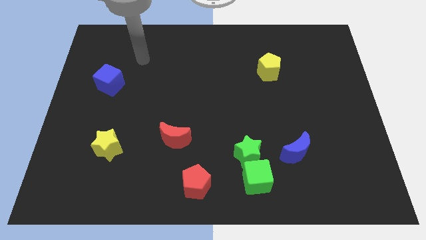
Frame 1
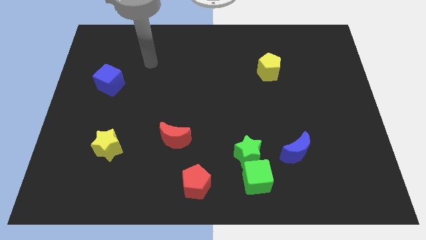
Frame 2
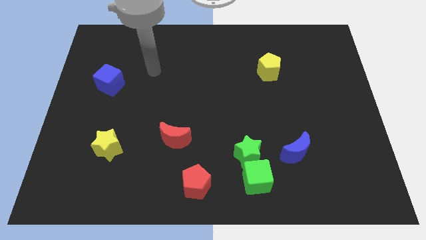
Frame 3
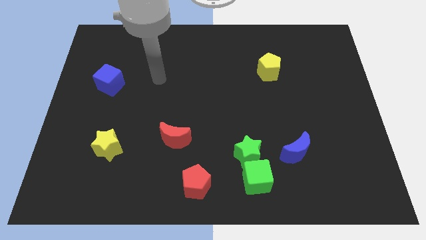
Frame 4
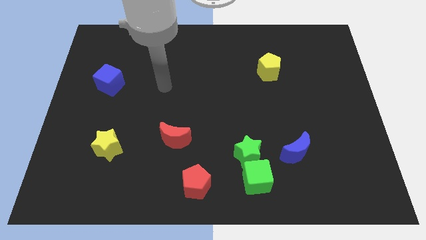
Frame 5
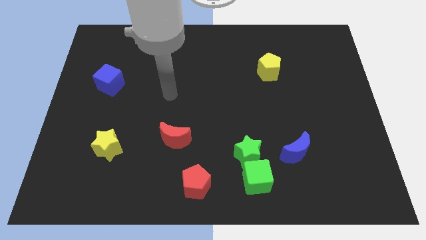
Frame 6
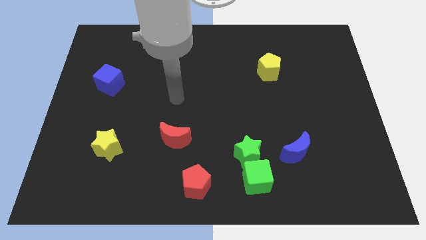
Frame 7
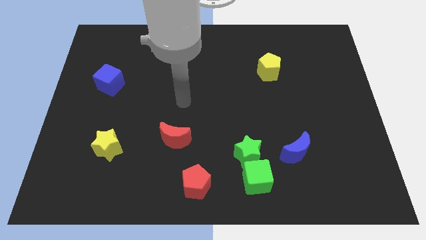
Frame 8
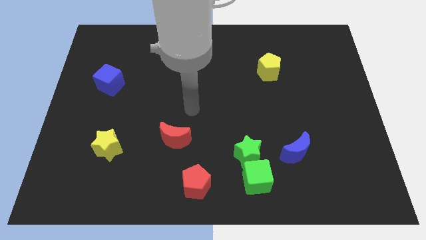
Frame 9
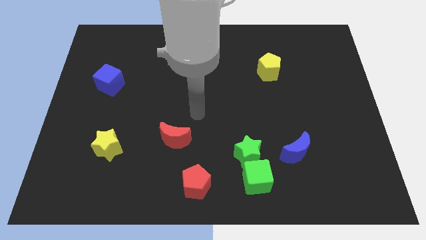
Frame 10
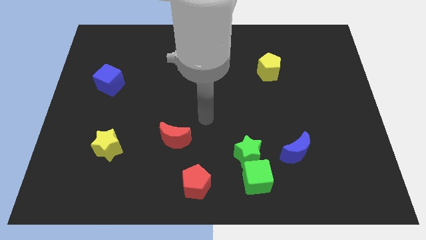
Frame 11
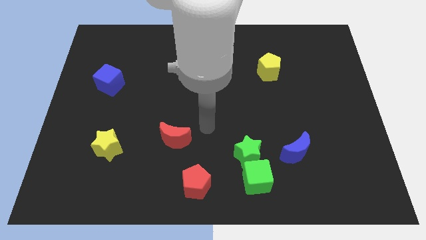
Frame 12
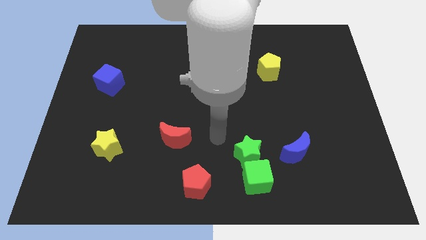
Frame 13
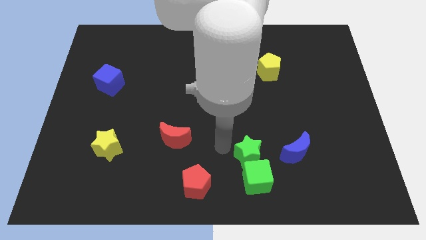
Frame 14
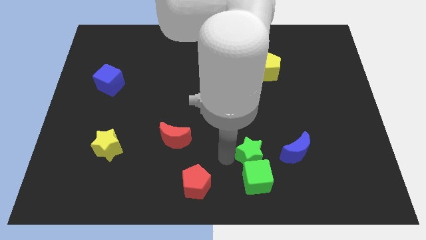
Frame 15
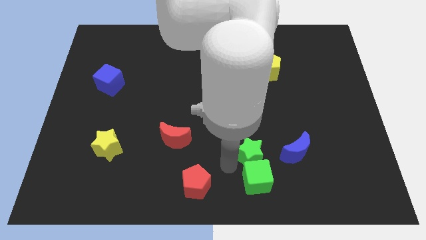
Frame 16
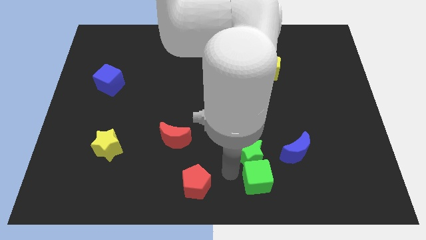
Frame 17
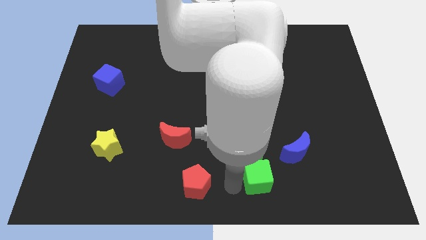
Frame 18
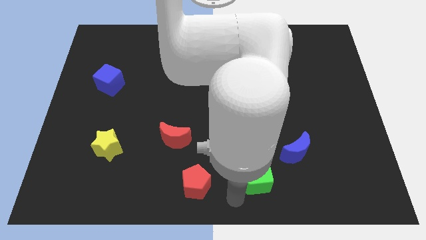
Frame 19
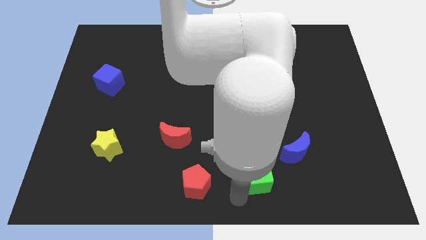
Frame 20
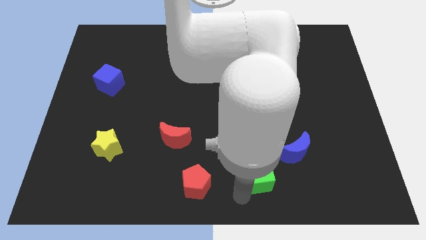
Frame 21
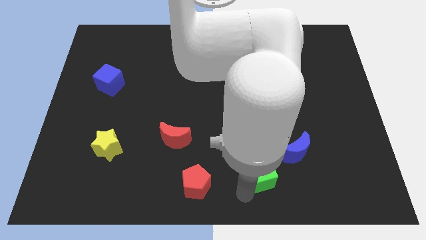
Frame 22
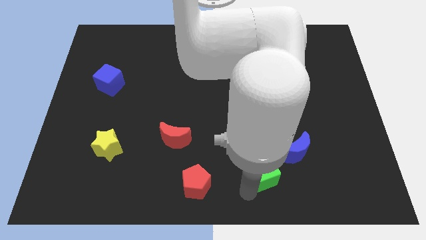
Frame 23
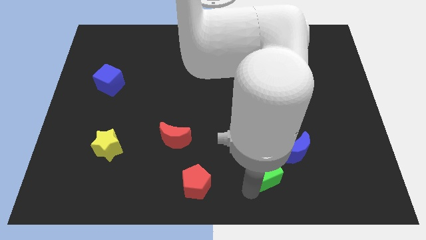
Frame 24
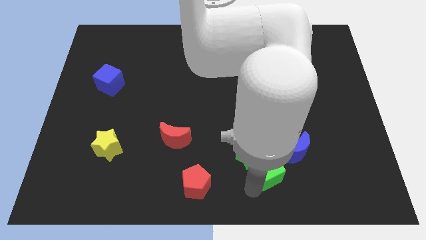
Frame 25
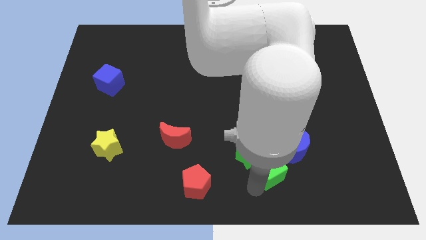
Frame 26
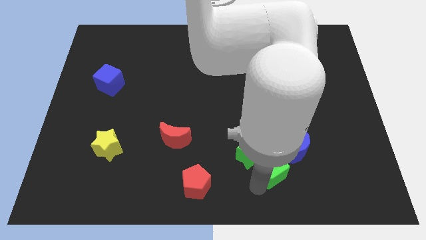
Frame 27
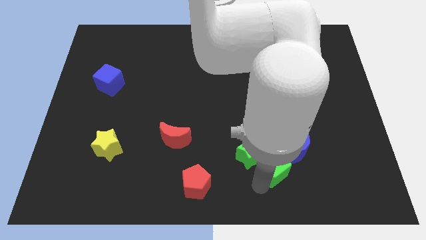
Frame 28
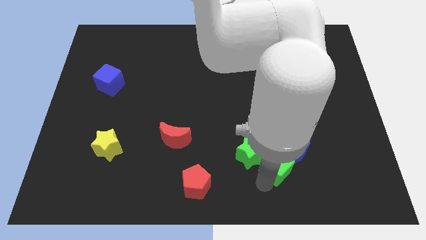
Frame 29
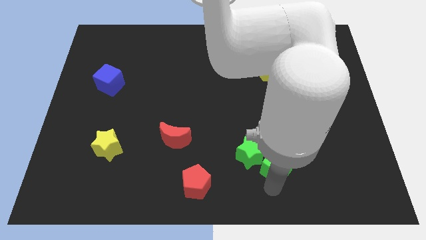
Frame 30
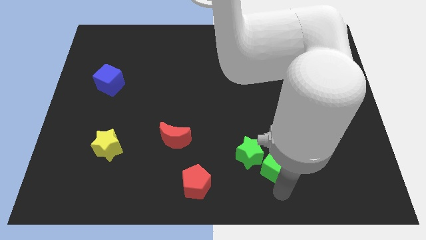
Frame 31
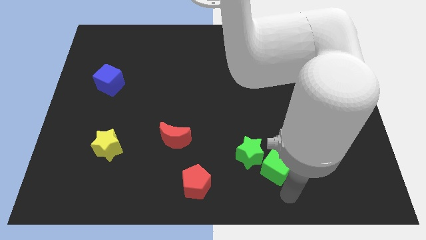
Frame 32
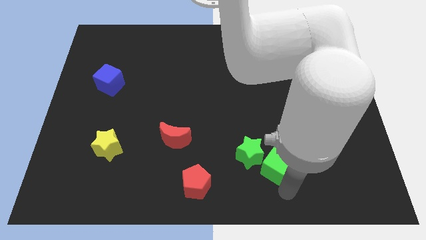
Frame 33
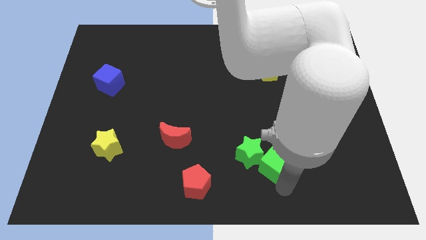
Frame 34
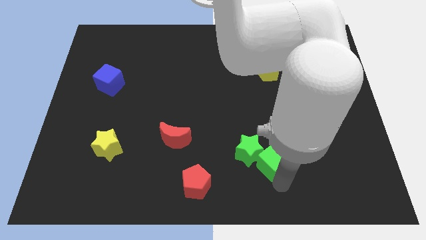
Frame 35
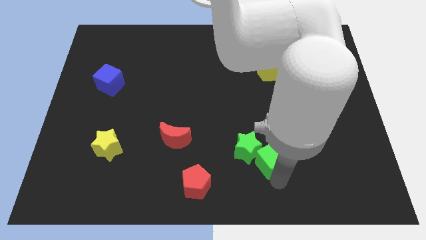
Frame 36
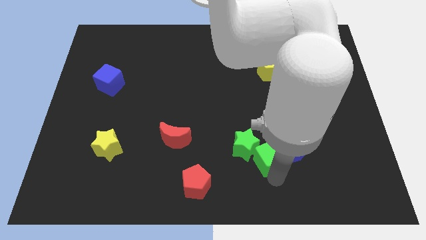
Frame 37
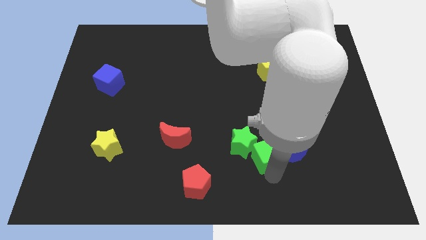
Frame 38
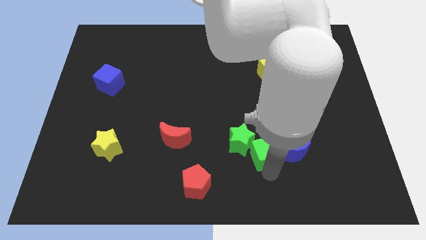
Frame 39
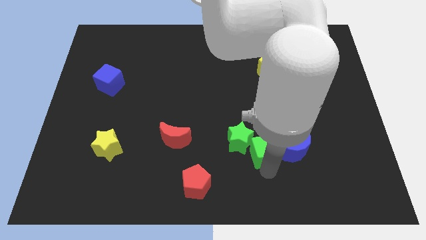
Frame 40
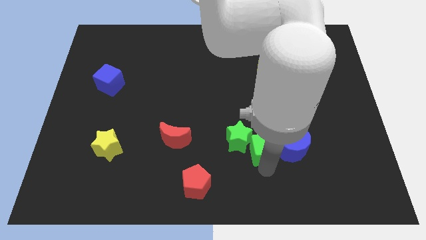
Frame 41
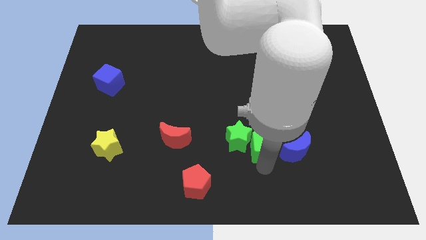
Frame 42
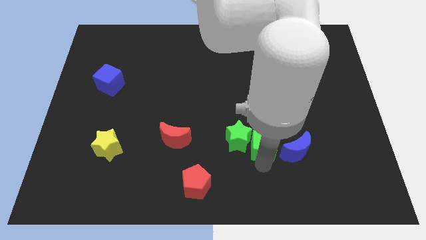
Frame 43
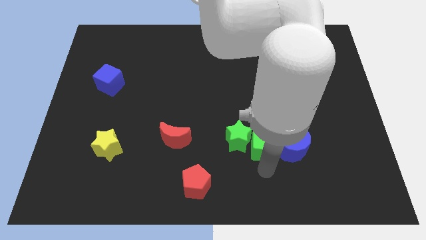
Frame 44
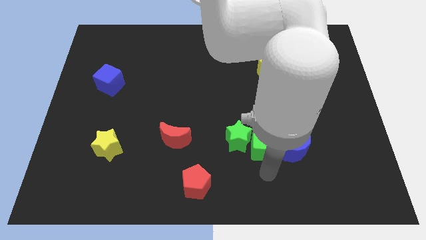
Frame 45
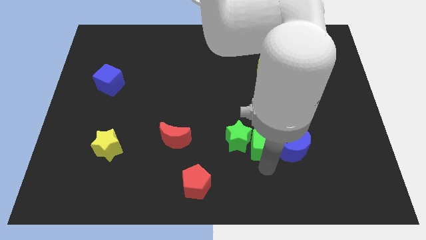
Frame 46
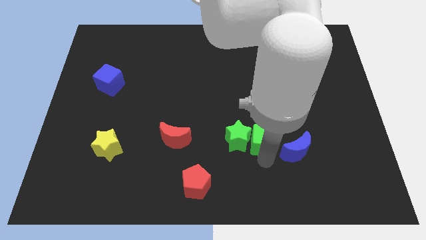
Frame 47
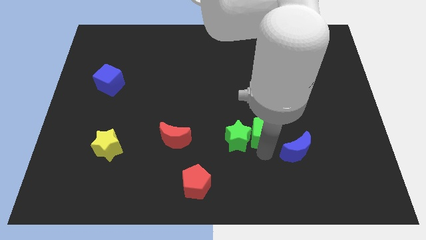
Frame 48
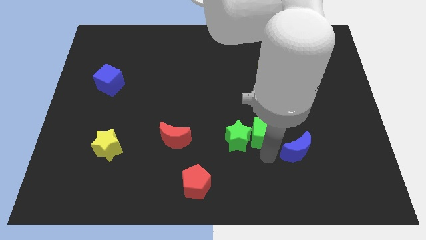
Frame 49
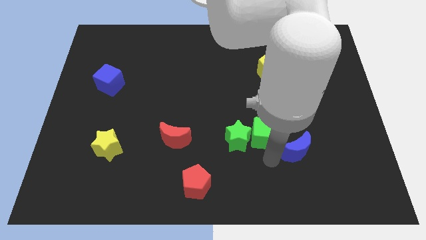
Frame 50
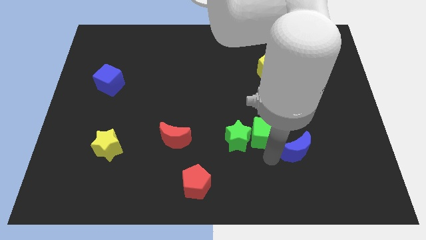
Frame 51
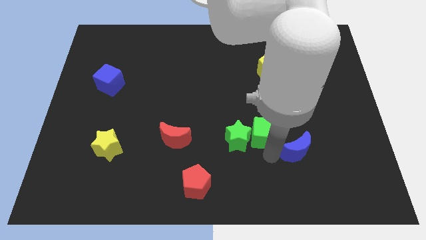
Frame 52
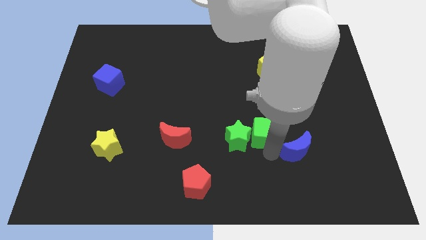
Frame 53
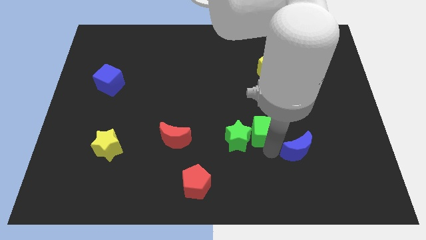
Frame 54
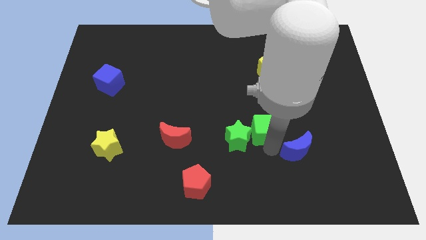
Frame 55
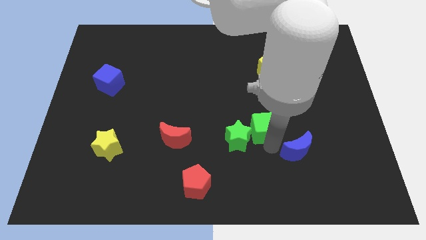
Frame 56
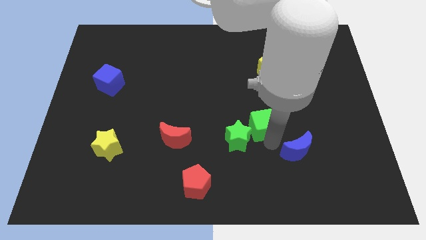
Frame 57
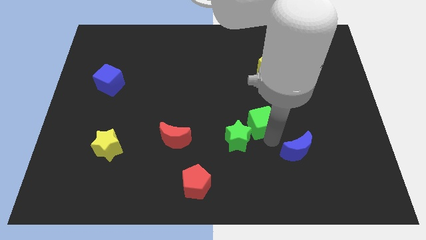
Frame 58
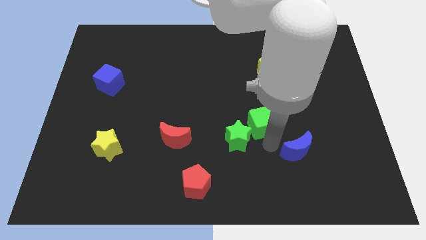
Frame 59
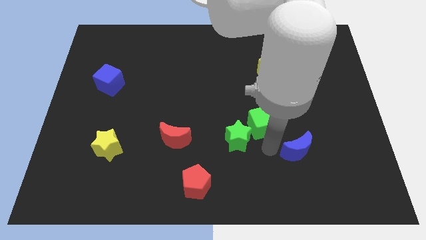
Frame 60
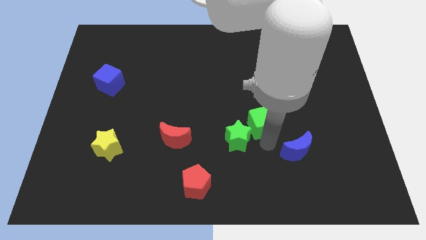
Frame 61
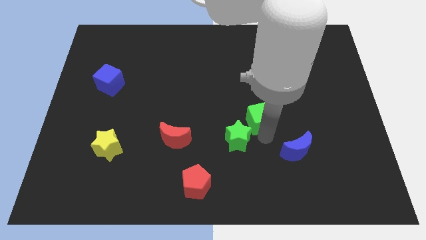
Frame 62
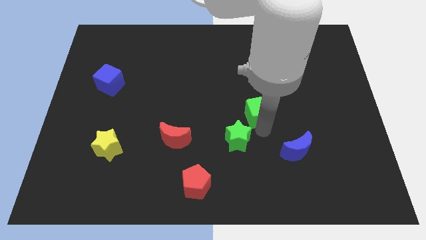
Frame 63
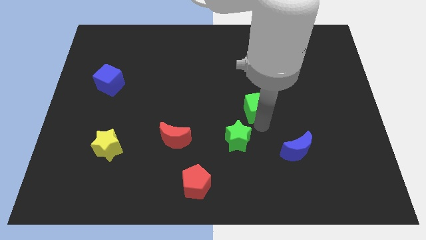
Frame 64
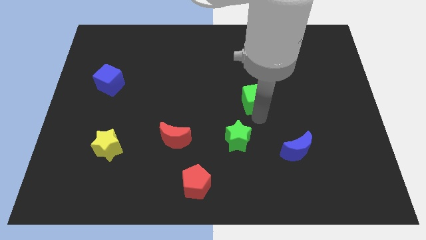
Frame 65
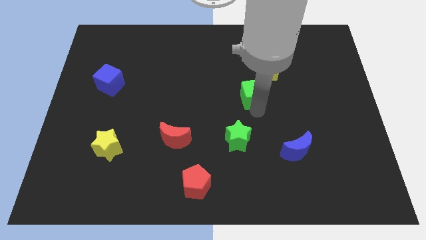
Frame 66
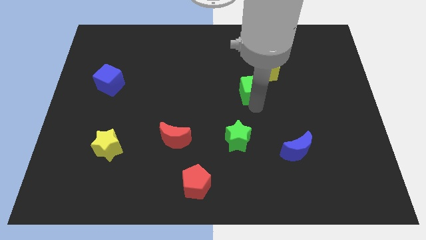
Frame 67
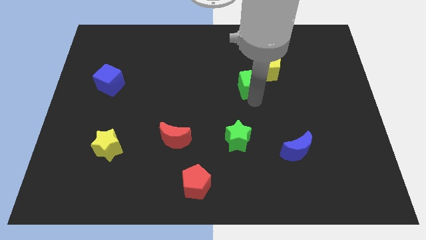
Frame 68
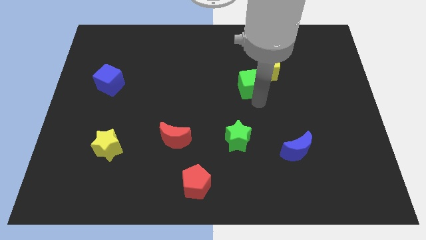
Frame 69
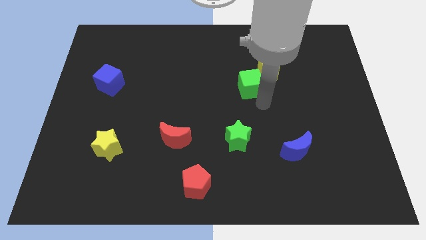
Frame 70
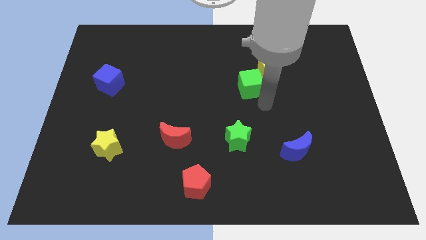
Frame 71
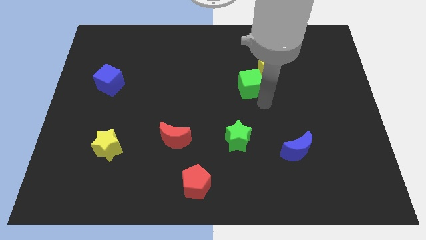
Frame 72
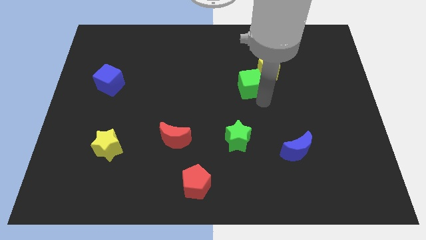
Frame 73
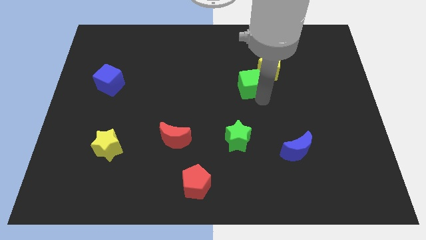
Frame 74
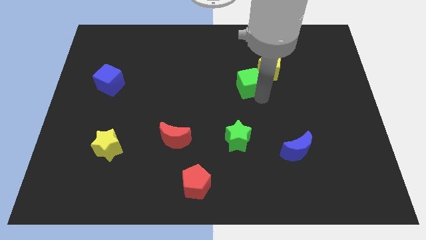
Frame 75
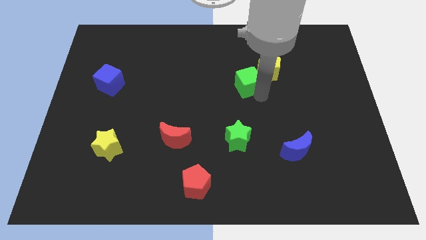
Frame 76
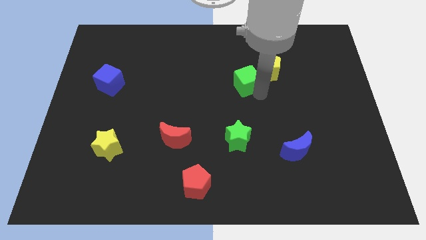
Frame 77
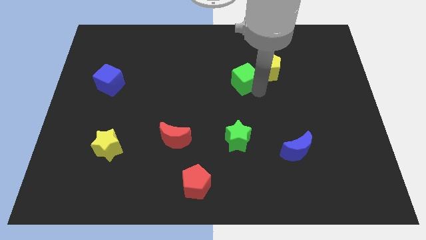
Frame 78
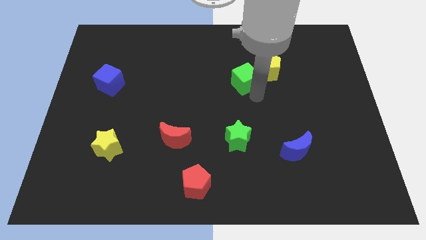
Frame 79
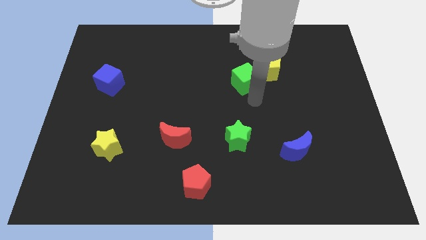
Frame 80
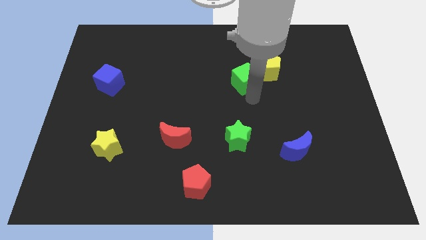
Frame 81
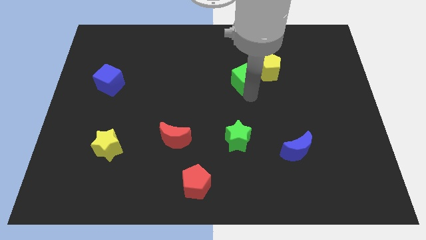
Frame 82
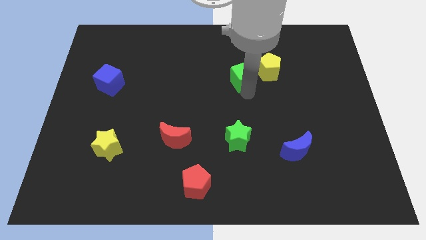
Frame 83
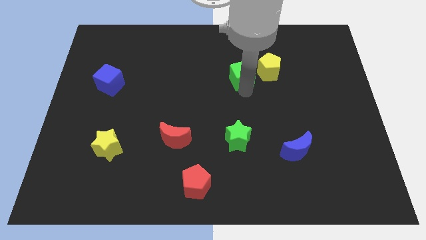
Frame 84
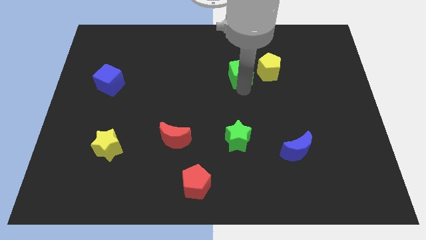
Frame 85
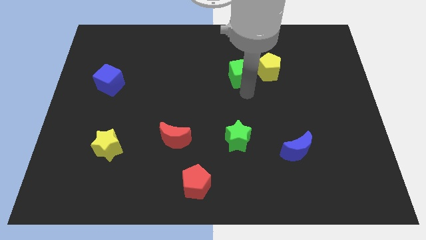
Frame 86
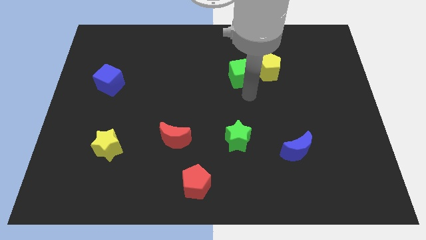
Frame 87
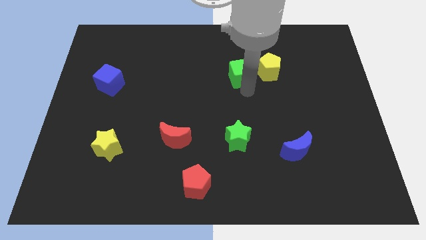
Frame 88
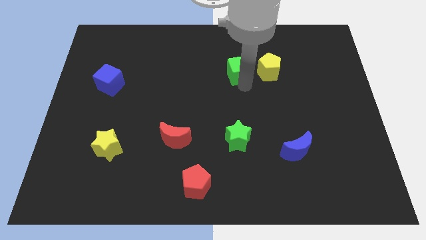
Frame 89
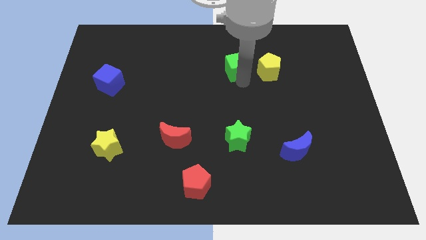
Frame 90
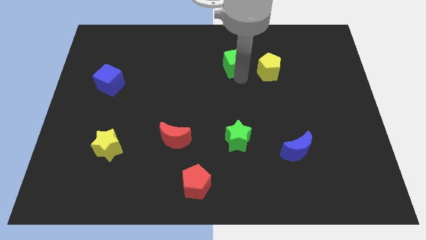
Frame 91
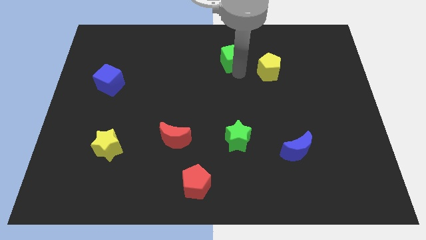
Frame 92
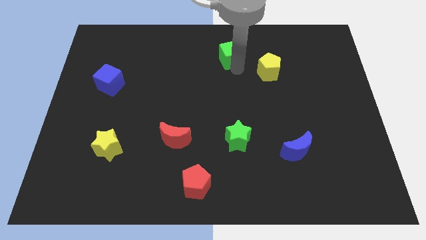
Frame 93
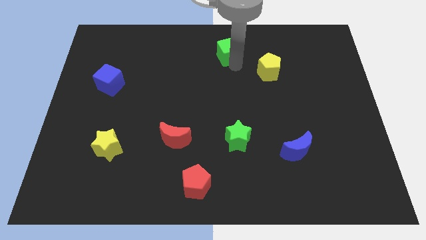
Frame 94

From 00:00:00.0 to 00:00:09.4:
slide the green cube to the top side
